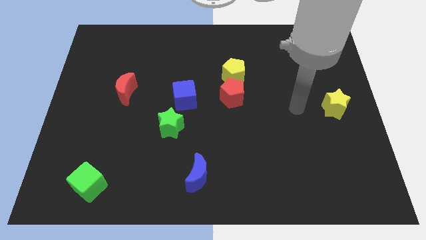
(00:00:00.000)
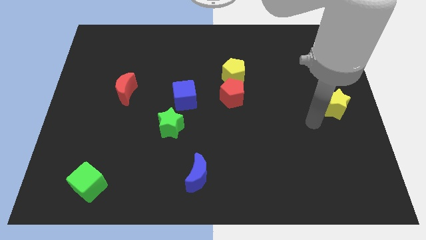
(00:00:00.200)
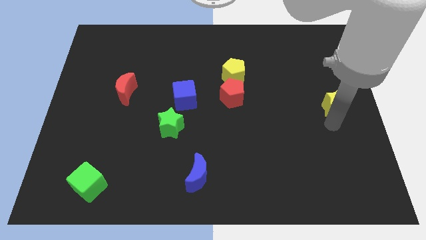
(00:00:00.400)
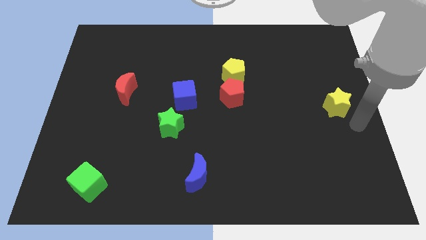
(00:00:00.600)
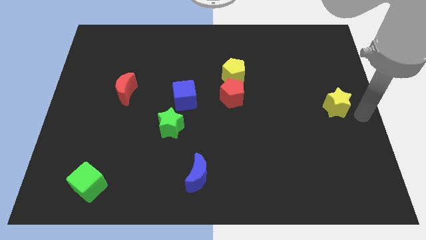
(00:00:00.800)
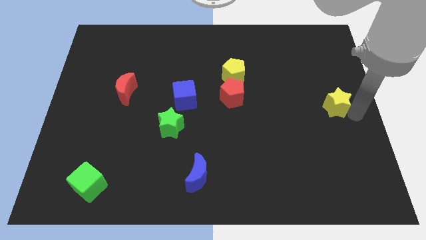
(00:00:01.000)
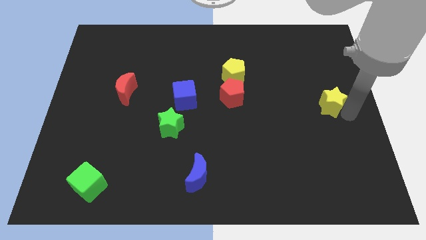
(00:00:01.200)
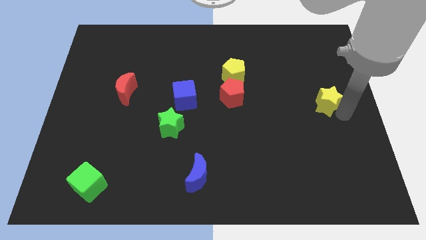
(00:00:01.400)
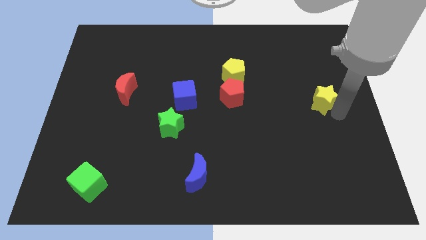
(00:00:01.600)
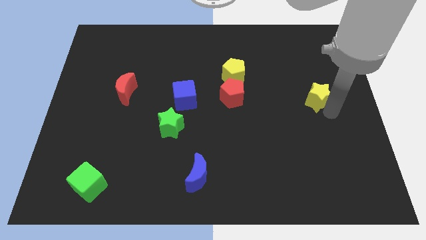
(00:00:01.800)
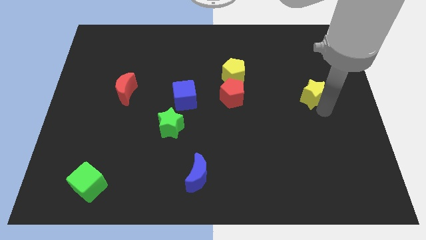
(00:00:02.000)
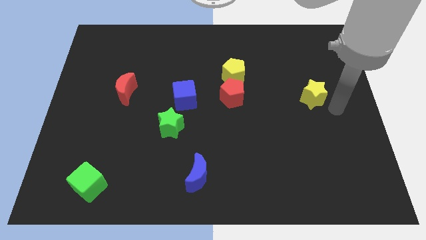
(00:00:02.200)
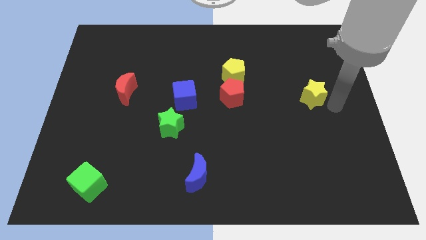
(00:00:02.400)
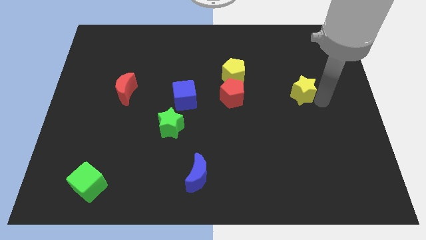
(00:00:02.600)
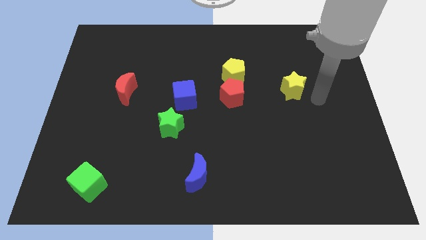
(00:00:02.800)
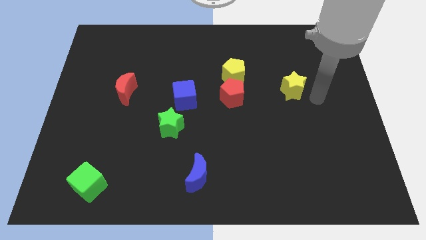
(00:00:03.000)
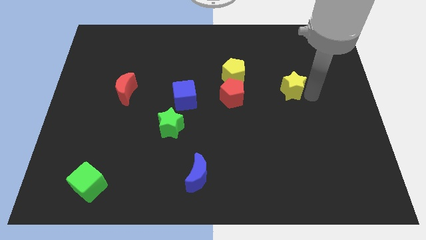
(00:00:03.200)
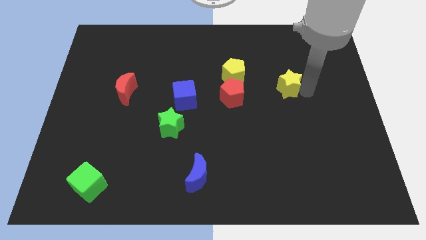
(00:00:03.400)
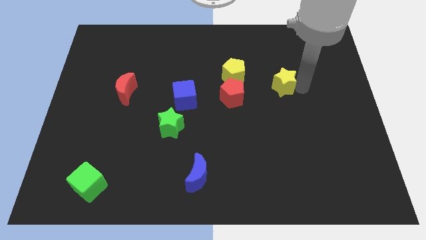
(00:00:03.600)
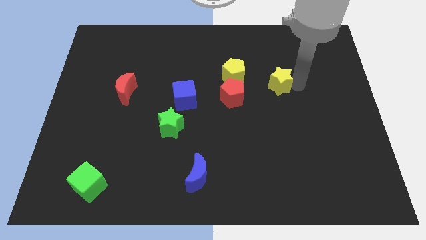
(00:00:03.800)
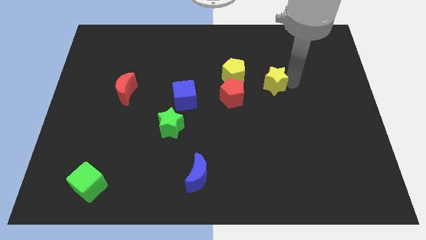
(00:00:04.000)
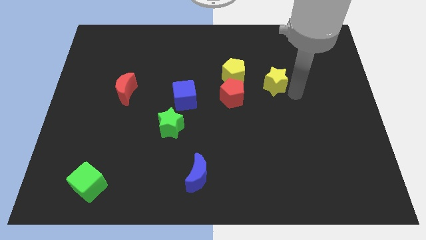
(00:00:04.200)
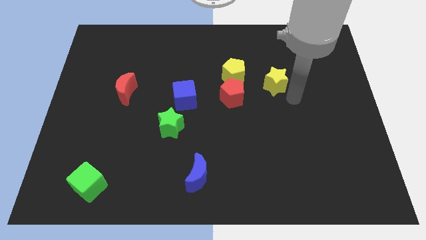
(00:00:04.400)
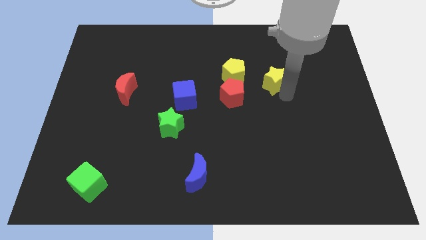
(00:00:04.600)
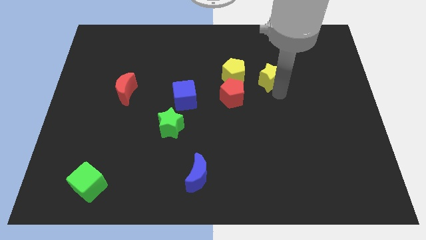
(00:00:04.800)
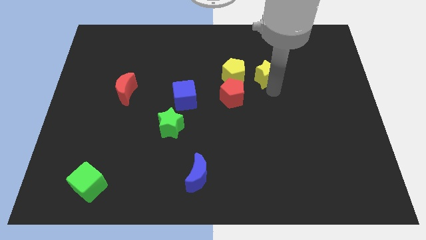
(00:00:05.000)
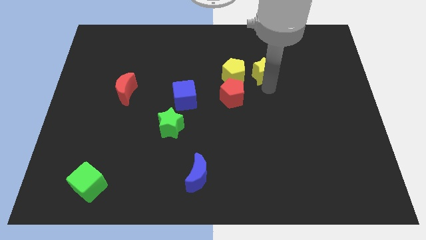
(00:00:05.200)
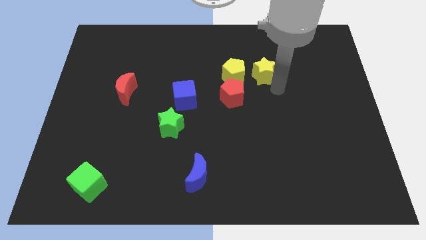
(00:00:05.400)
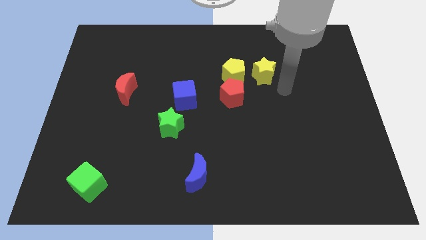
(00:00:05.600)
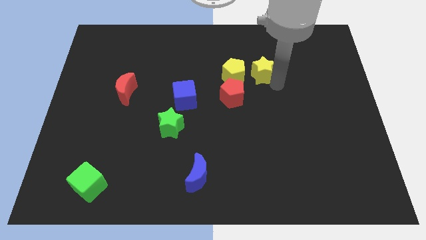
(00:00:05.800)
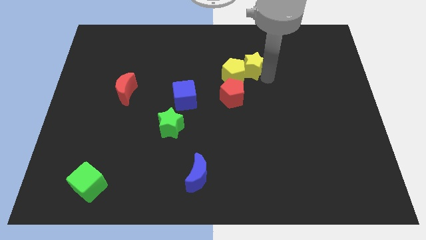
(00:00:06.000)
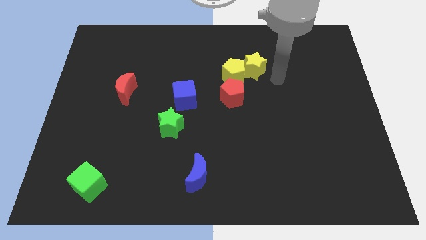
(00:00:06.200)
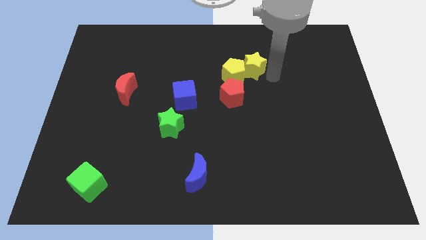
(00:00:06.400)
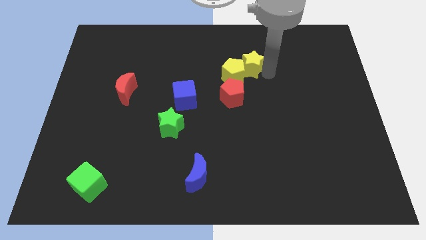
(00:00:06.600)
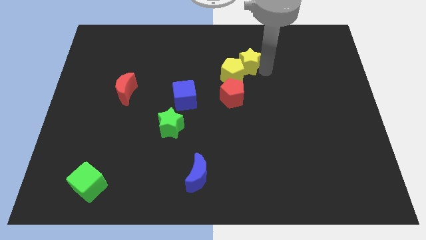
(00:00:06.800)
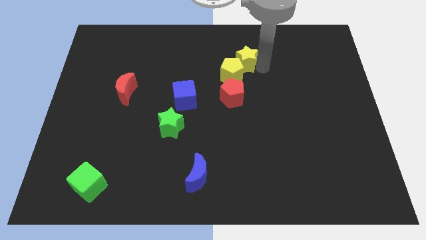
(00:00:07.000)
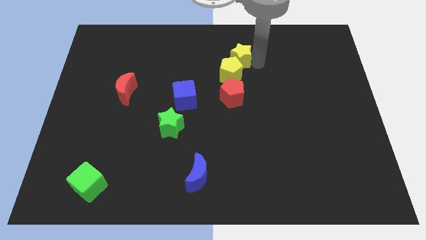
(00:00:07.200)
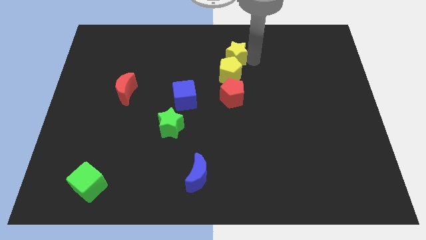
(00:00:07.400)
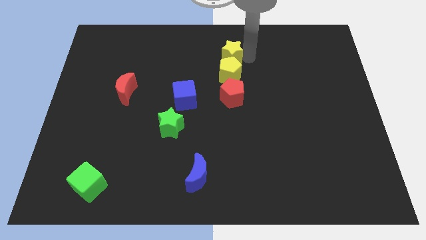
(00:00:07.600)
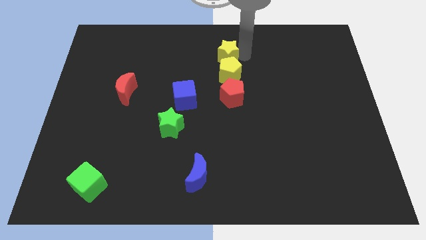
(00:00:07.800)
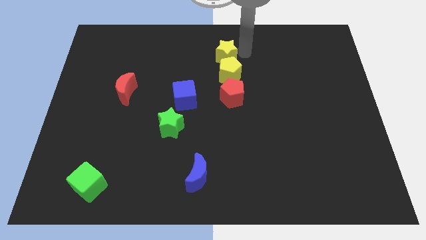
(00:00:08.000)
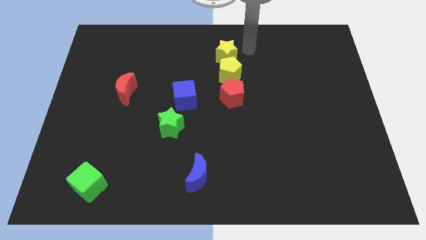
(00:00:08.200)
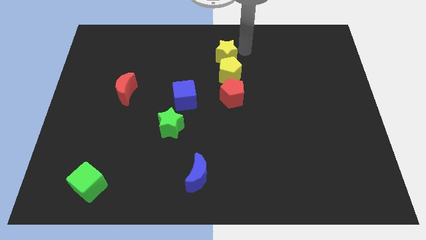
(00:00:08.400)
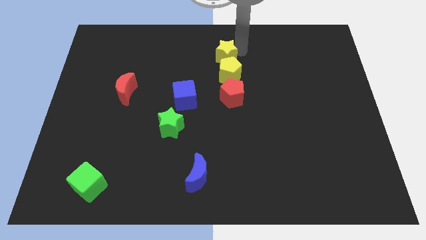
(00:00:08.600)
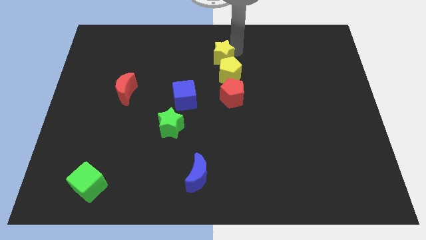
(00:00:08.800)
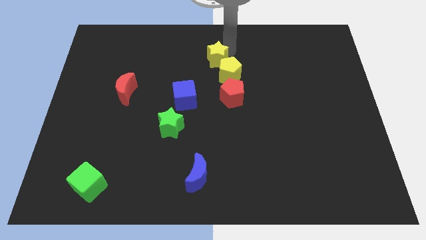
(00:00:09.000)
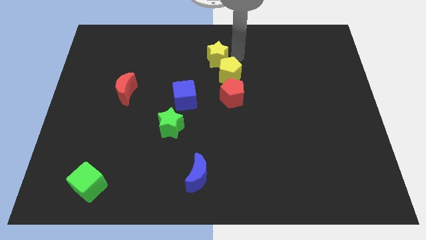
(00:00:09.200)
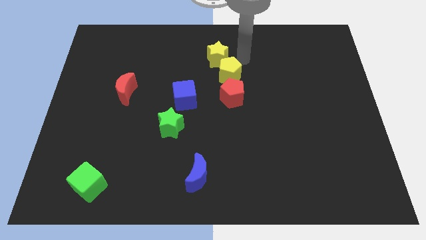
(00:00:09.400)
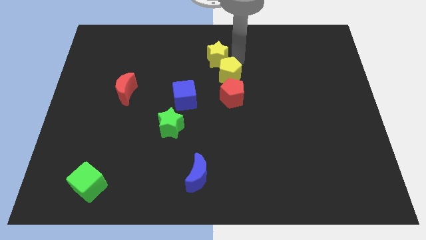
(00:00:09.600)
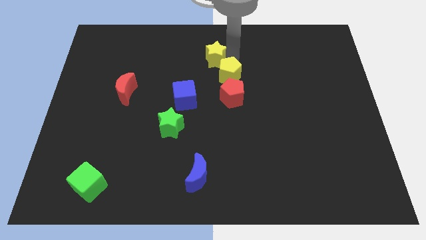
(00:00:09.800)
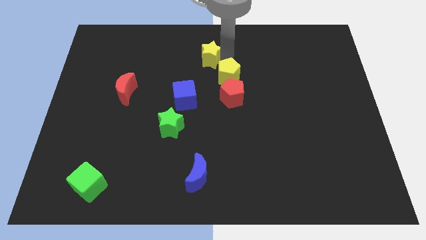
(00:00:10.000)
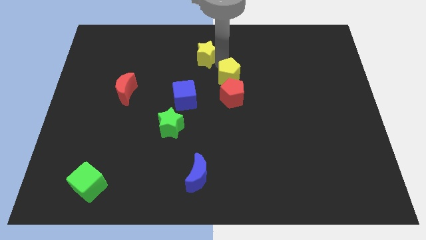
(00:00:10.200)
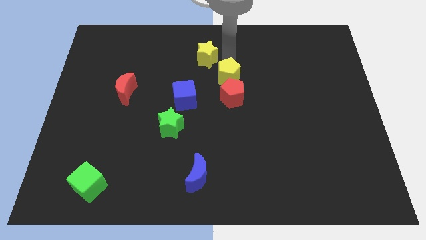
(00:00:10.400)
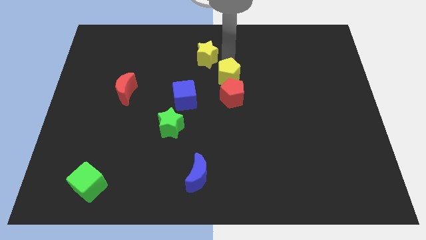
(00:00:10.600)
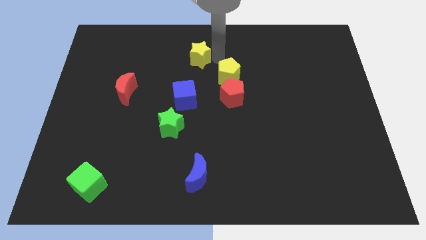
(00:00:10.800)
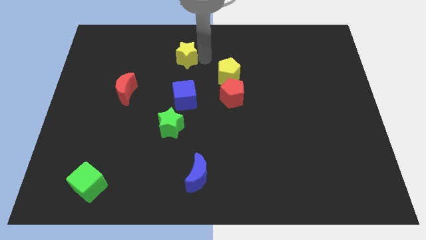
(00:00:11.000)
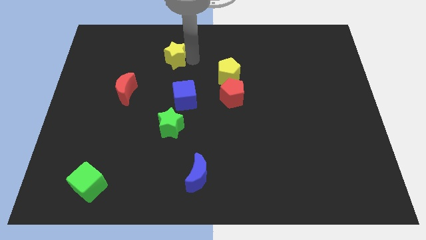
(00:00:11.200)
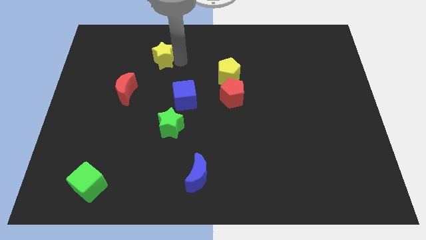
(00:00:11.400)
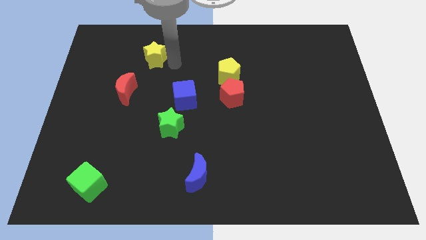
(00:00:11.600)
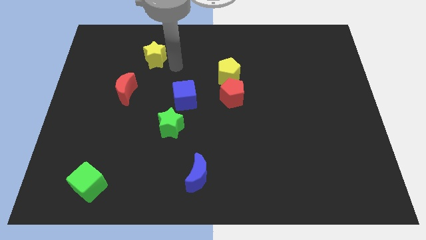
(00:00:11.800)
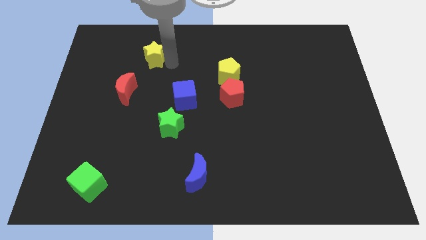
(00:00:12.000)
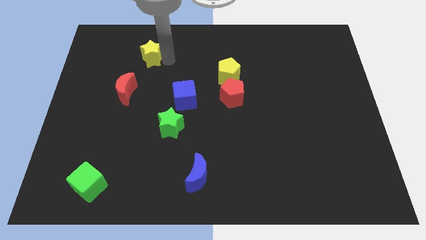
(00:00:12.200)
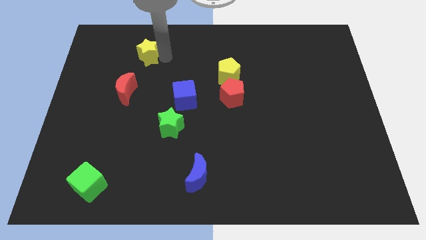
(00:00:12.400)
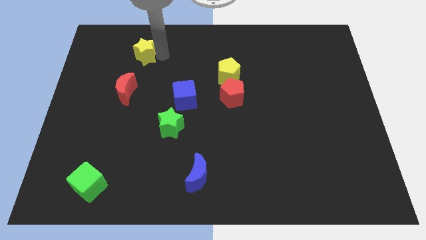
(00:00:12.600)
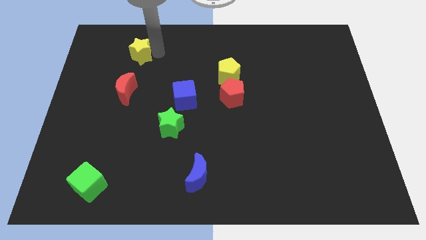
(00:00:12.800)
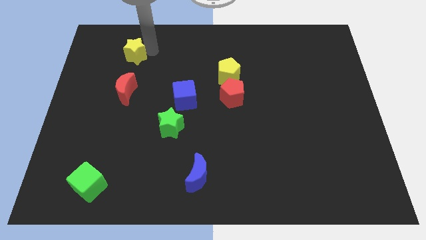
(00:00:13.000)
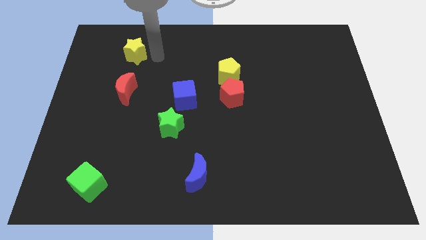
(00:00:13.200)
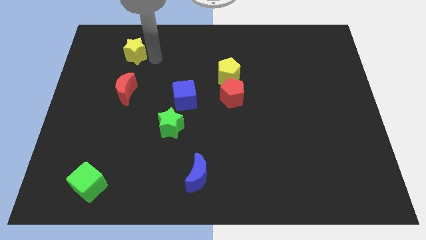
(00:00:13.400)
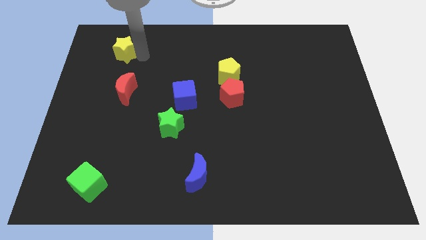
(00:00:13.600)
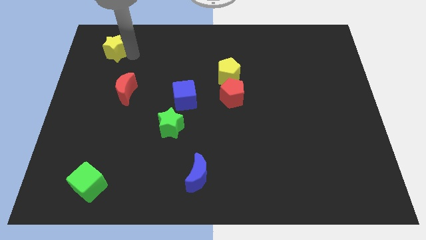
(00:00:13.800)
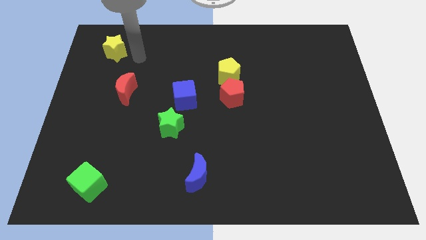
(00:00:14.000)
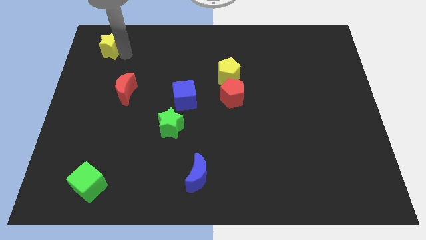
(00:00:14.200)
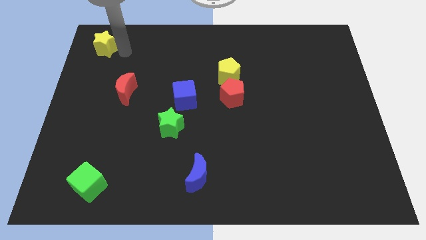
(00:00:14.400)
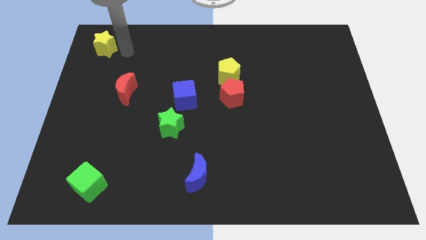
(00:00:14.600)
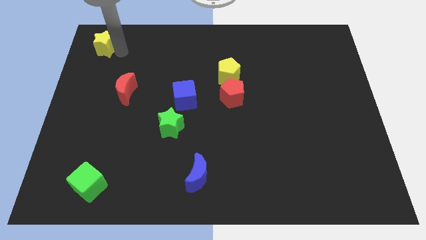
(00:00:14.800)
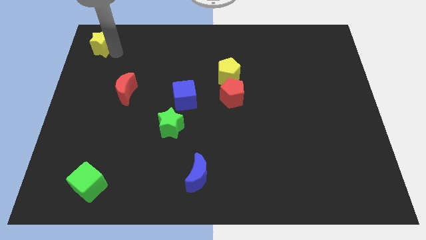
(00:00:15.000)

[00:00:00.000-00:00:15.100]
move the yellow star to the top left
